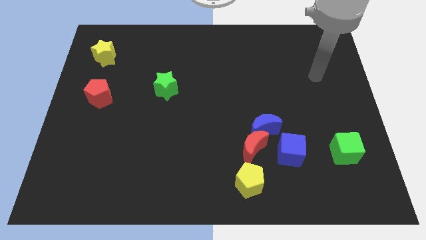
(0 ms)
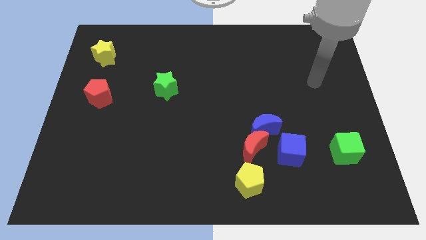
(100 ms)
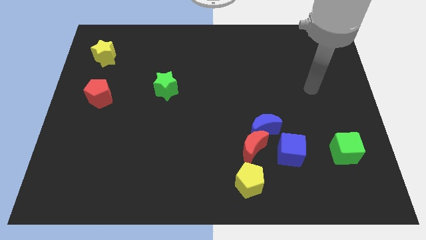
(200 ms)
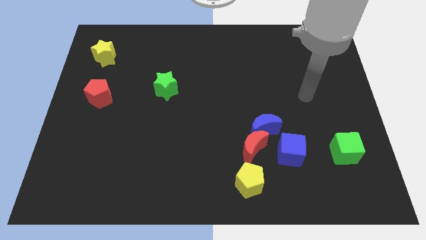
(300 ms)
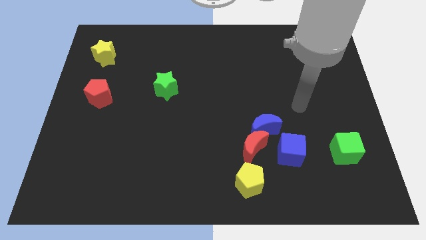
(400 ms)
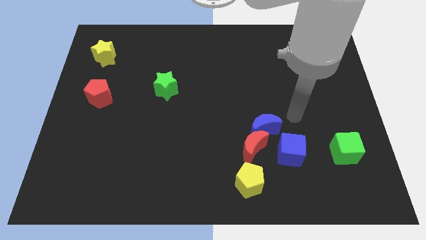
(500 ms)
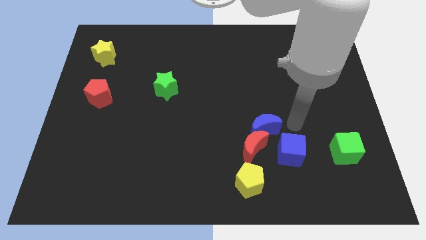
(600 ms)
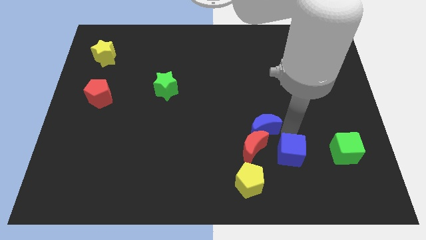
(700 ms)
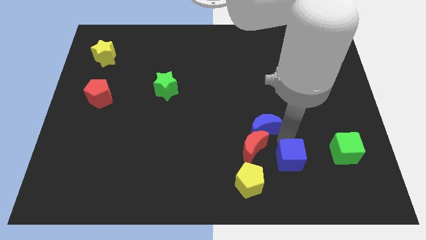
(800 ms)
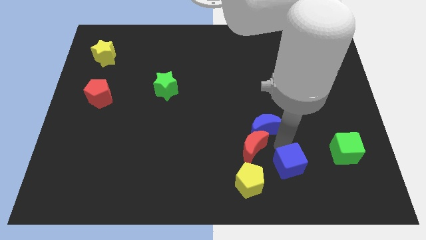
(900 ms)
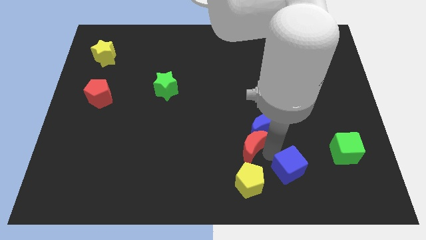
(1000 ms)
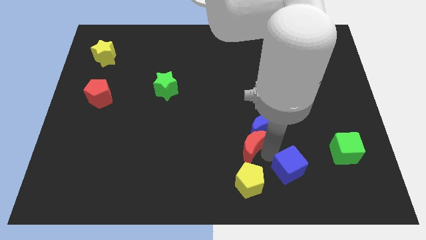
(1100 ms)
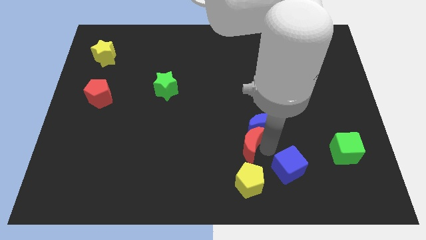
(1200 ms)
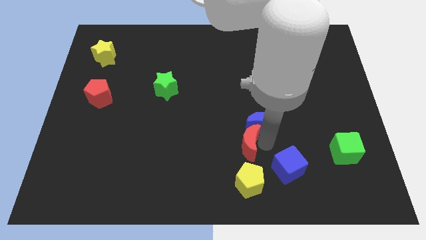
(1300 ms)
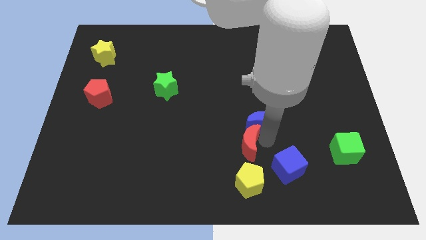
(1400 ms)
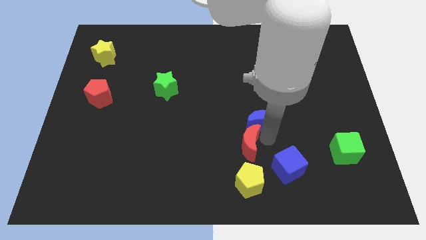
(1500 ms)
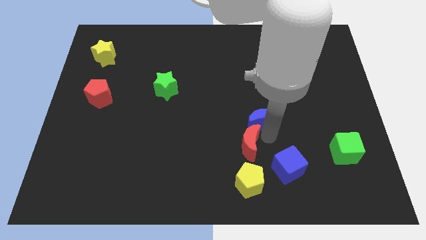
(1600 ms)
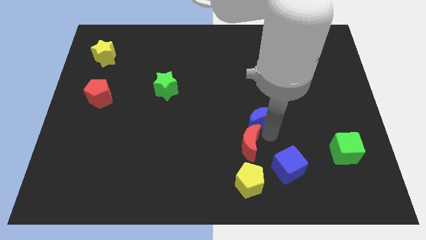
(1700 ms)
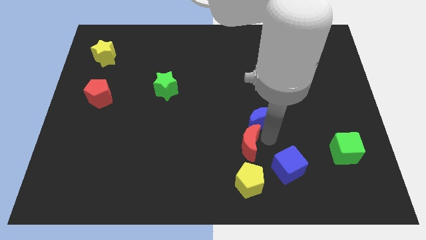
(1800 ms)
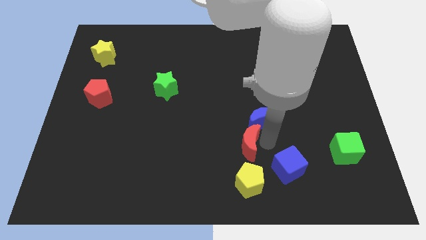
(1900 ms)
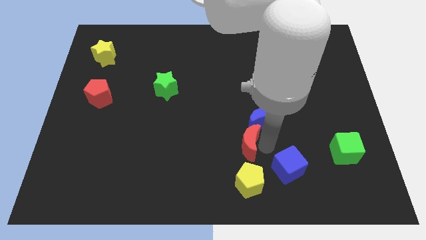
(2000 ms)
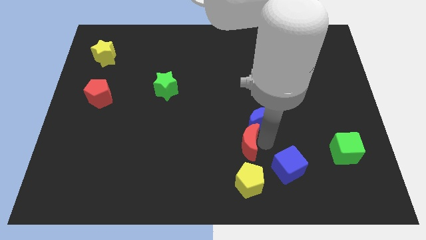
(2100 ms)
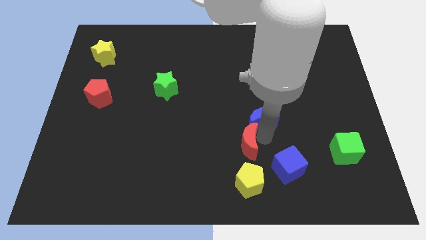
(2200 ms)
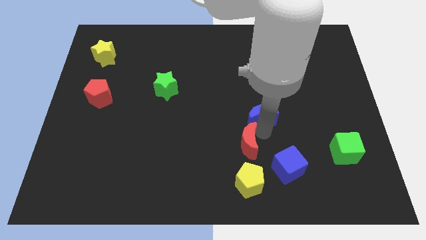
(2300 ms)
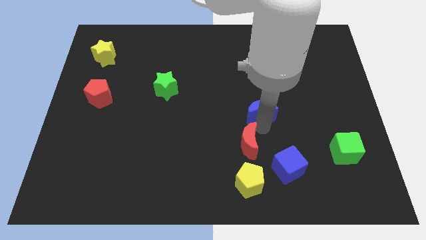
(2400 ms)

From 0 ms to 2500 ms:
separate the blue moon from the red moon and blue cube

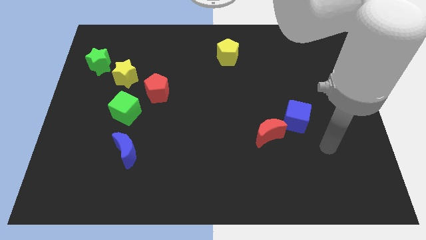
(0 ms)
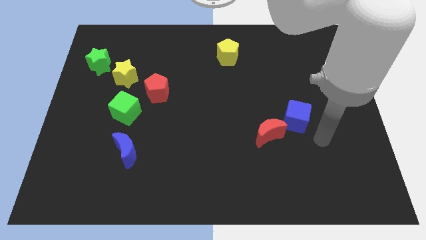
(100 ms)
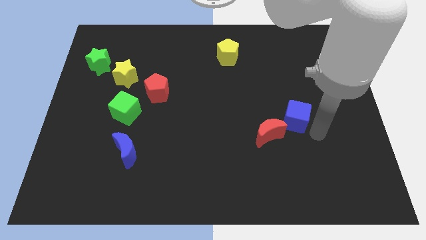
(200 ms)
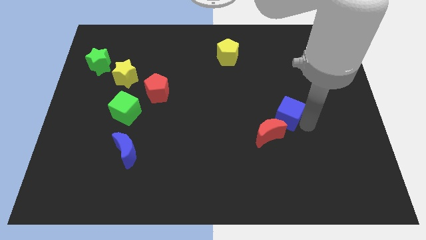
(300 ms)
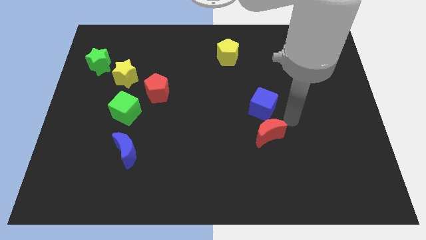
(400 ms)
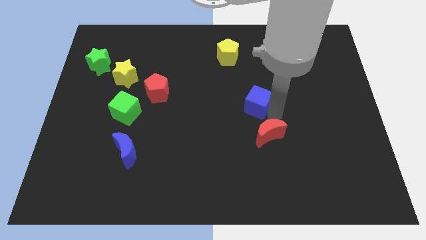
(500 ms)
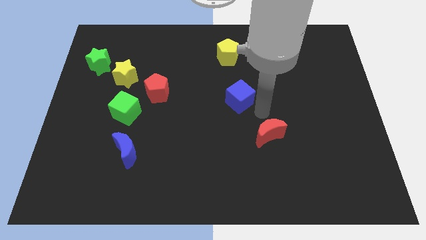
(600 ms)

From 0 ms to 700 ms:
pull the red moon apart from the blue cube

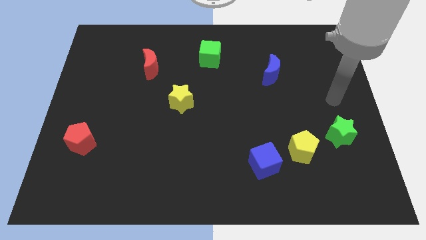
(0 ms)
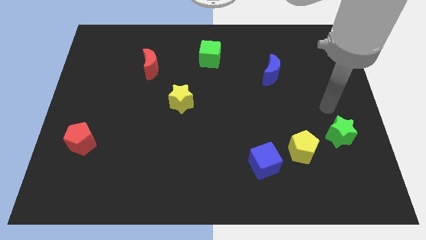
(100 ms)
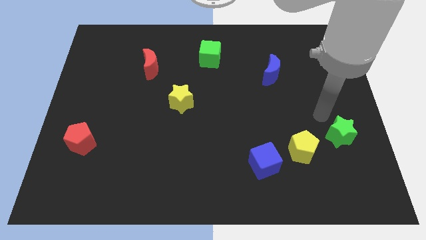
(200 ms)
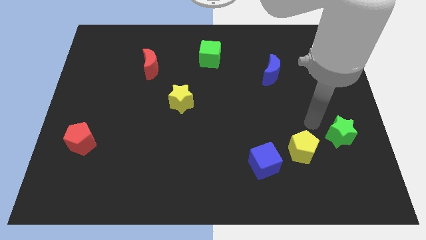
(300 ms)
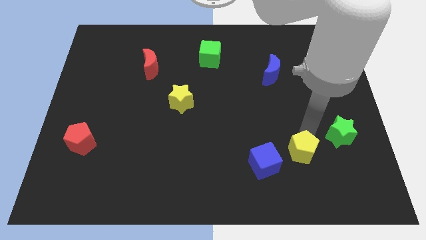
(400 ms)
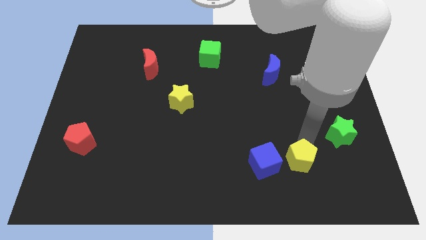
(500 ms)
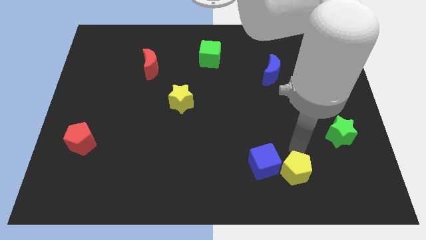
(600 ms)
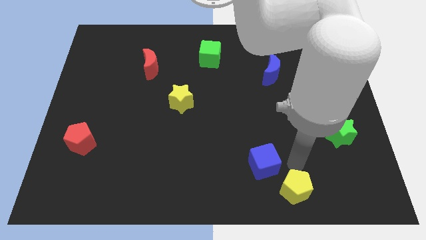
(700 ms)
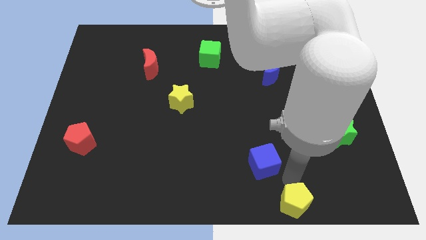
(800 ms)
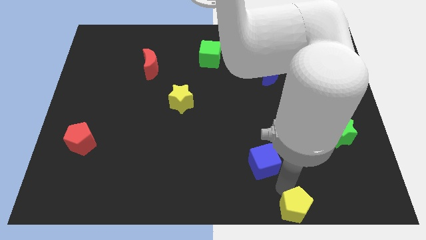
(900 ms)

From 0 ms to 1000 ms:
move the blue cube away from the yellow pentagon

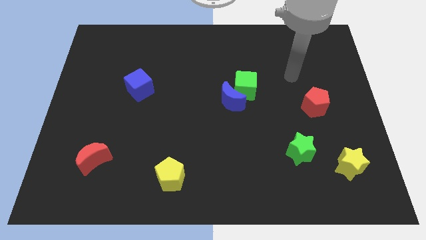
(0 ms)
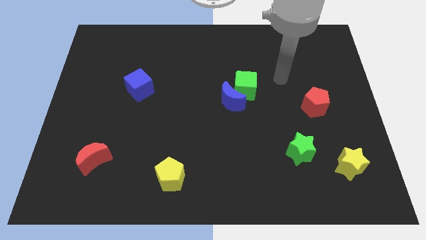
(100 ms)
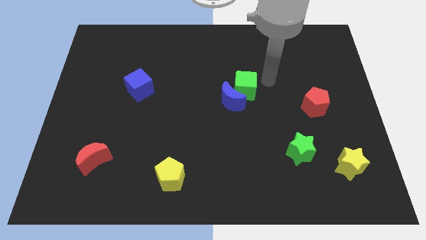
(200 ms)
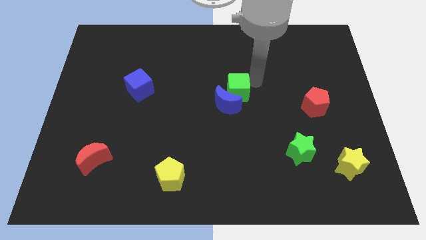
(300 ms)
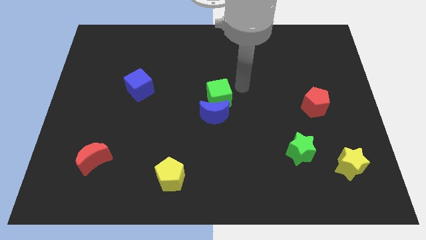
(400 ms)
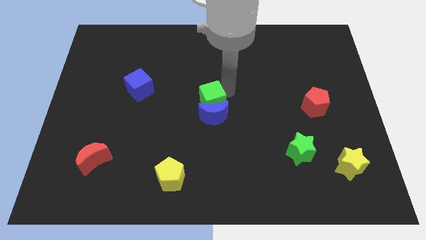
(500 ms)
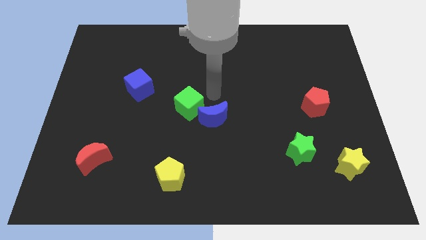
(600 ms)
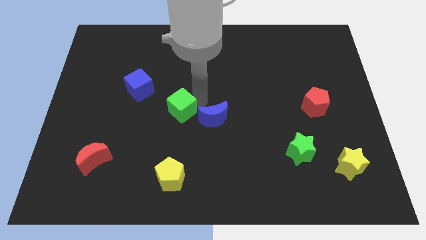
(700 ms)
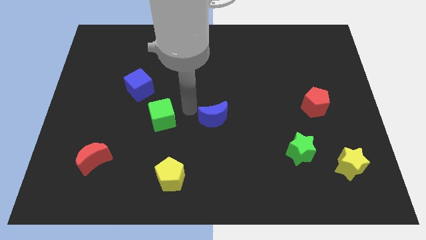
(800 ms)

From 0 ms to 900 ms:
move the blue moon away from the green cube

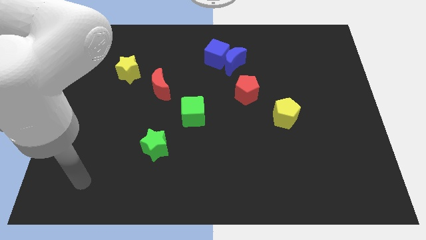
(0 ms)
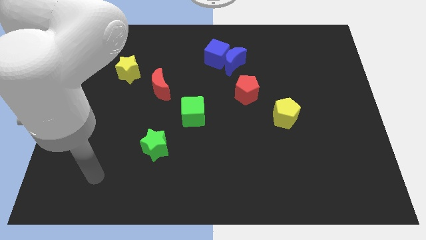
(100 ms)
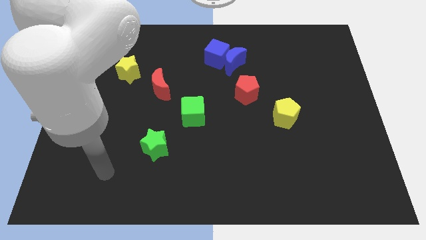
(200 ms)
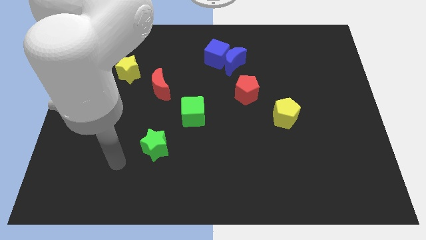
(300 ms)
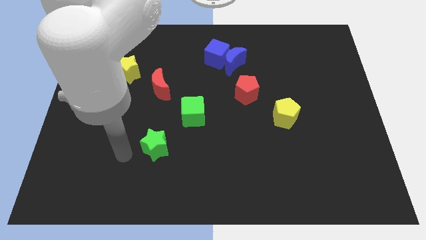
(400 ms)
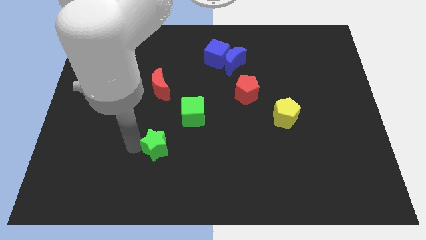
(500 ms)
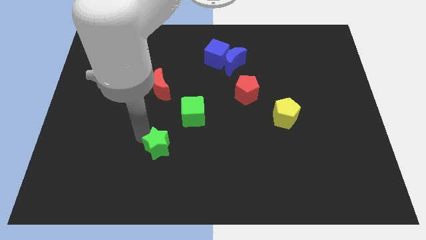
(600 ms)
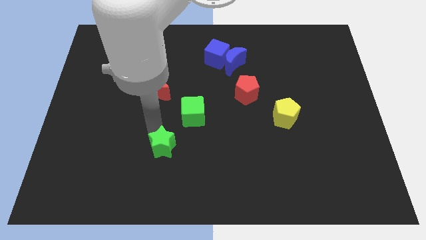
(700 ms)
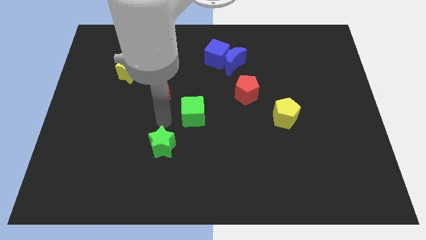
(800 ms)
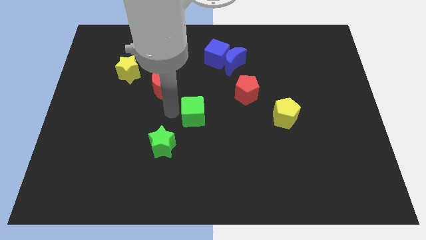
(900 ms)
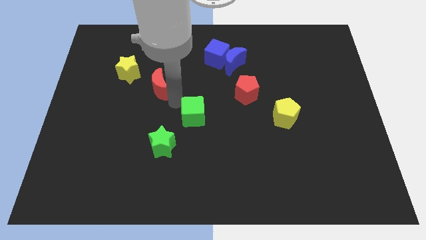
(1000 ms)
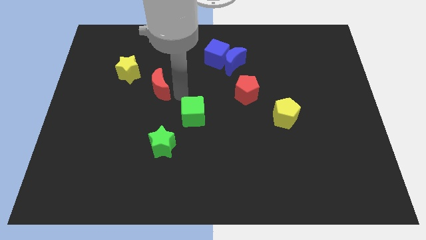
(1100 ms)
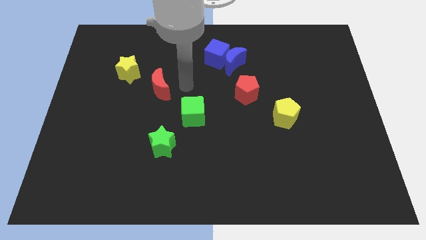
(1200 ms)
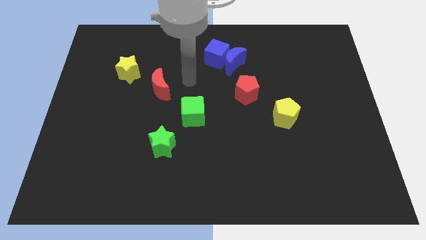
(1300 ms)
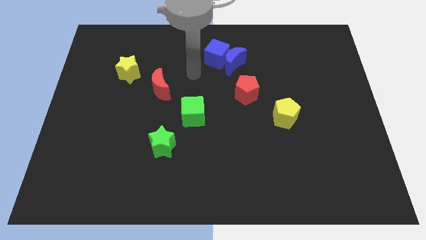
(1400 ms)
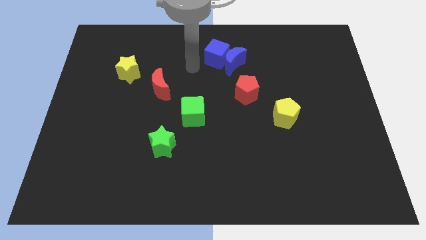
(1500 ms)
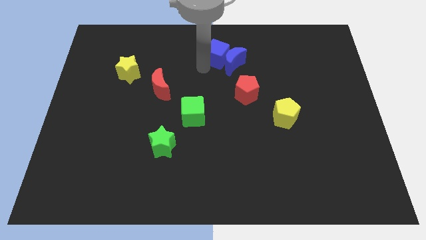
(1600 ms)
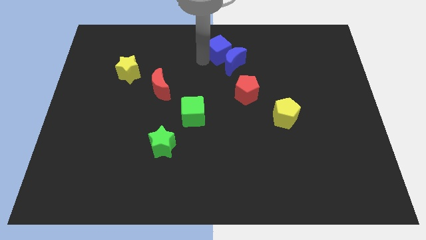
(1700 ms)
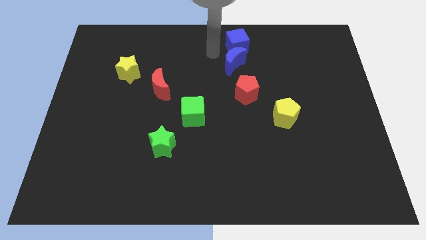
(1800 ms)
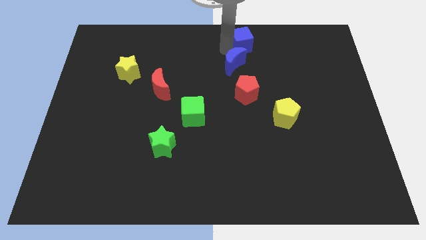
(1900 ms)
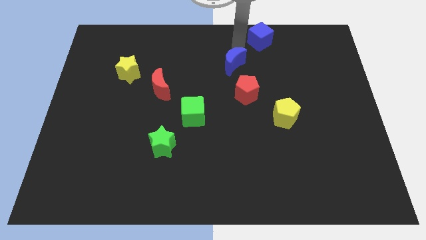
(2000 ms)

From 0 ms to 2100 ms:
separate the blue moon from the blue cube

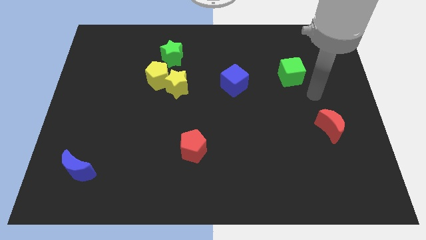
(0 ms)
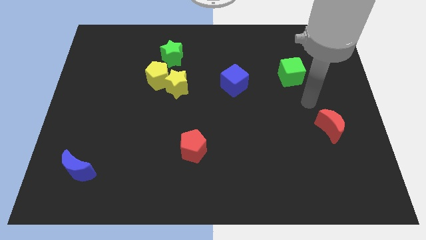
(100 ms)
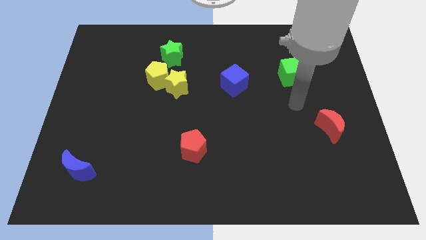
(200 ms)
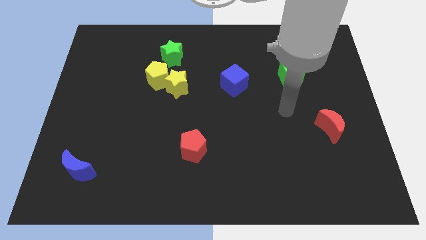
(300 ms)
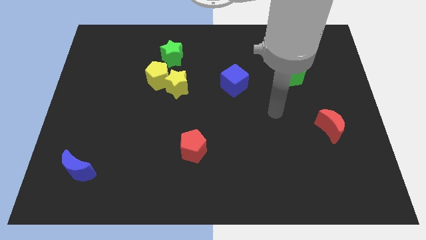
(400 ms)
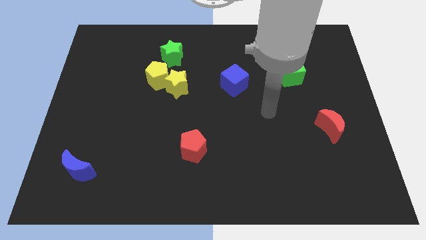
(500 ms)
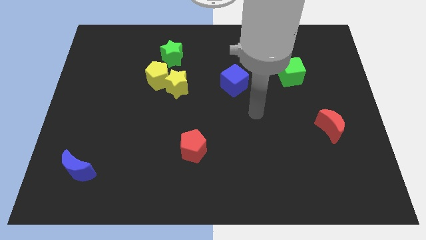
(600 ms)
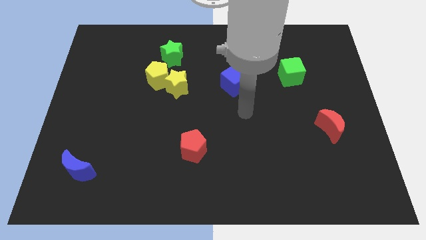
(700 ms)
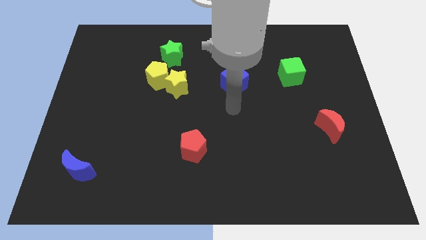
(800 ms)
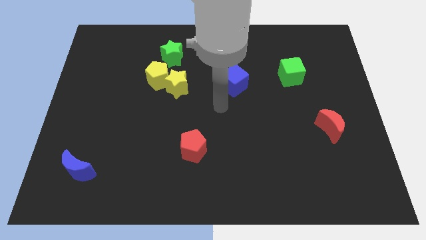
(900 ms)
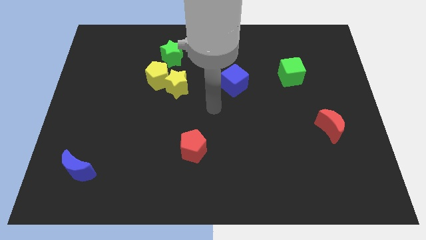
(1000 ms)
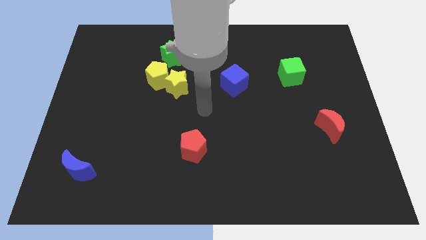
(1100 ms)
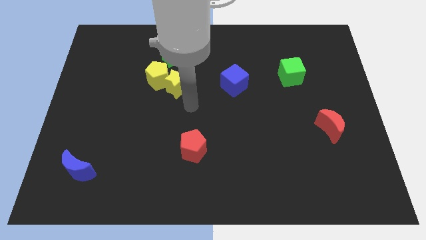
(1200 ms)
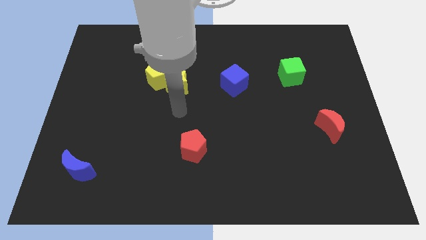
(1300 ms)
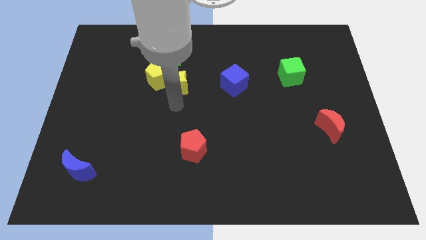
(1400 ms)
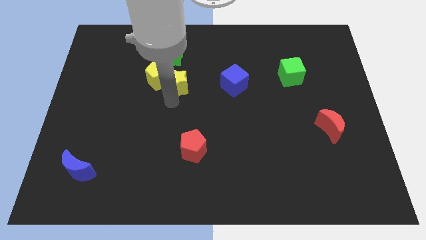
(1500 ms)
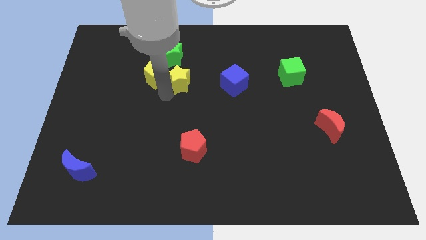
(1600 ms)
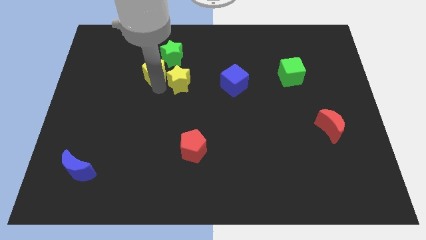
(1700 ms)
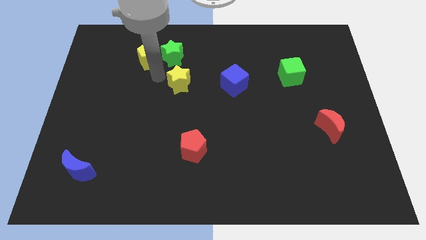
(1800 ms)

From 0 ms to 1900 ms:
pull the yellow star apart from the yellow pentagon

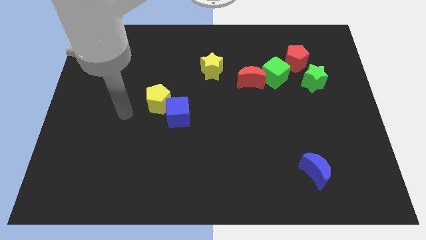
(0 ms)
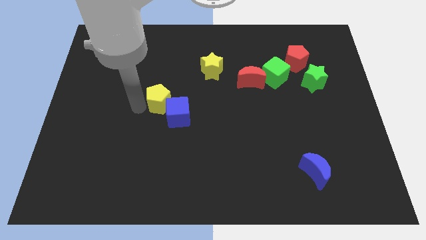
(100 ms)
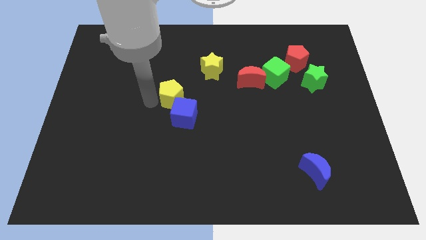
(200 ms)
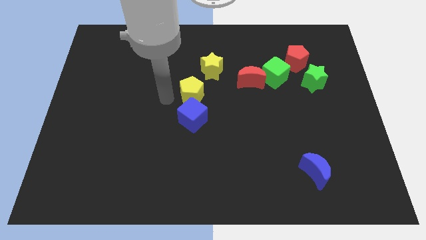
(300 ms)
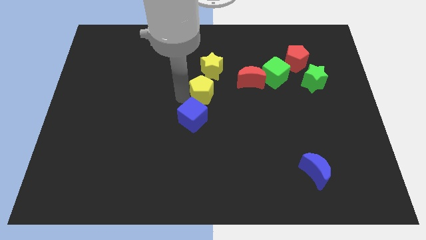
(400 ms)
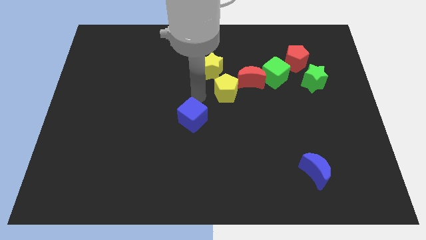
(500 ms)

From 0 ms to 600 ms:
pull the blue cube apart from the yellow pentagon
